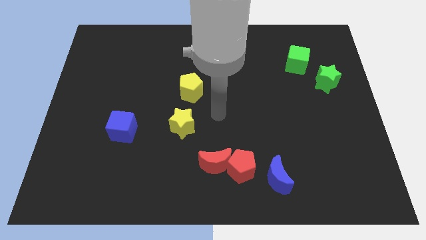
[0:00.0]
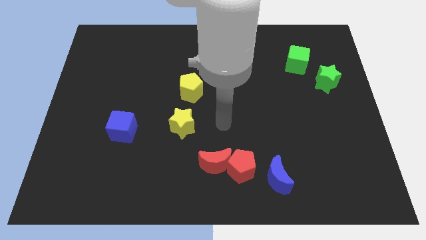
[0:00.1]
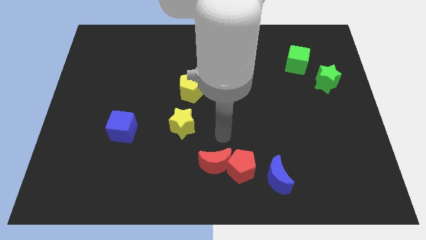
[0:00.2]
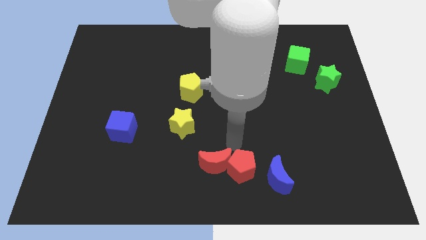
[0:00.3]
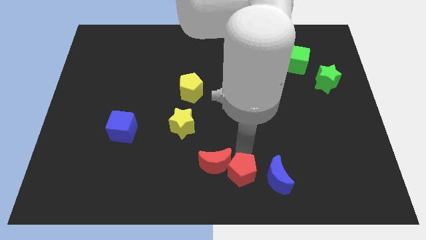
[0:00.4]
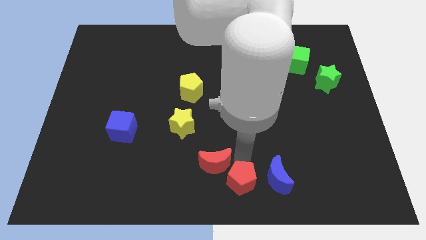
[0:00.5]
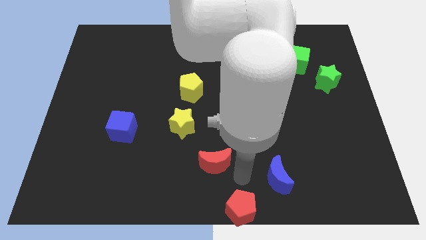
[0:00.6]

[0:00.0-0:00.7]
separate the red moon from the red pentagon

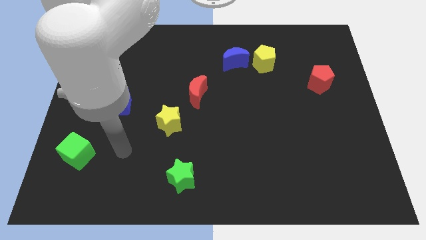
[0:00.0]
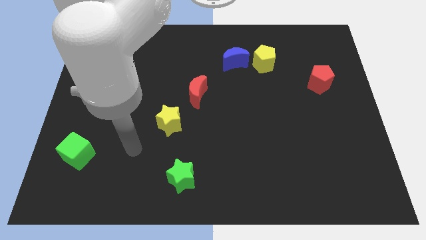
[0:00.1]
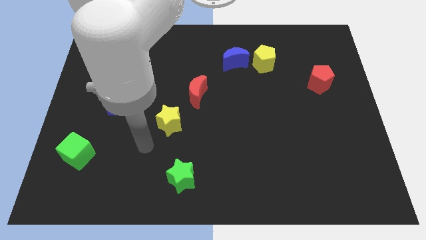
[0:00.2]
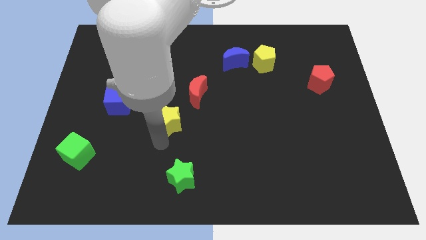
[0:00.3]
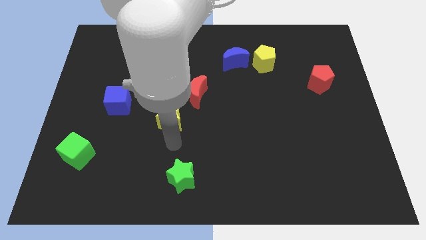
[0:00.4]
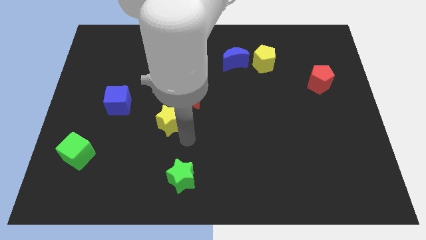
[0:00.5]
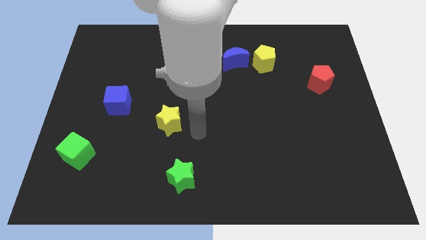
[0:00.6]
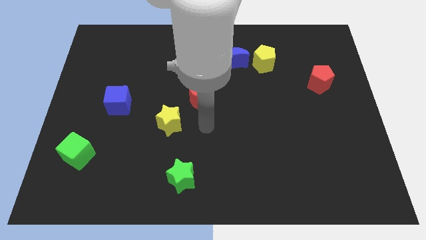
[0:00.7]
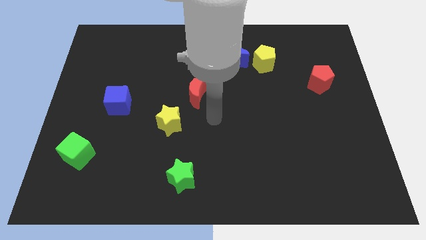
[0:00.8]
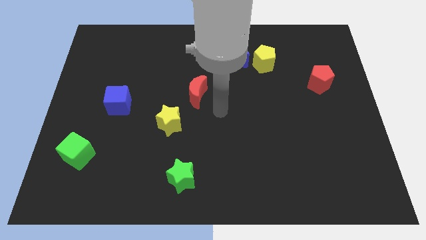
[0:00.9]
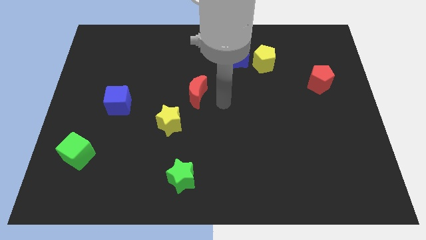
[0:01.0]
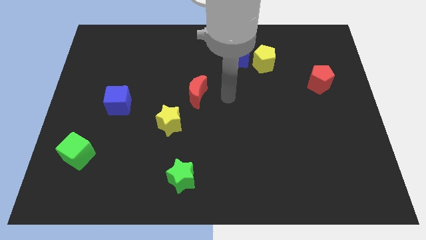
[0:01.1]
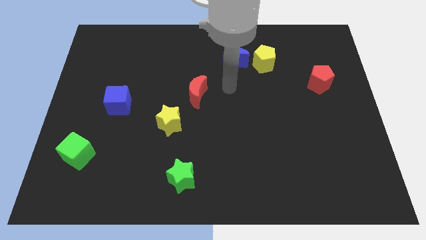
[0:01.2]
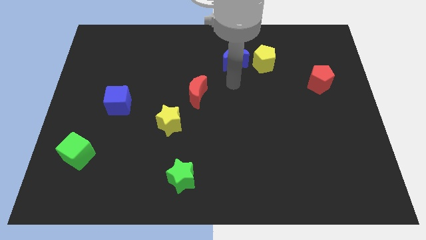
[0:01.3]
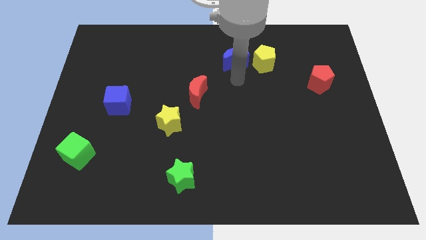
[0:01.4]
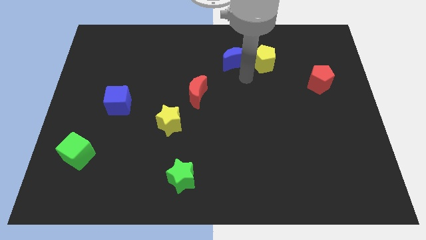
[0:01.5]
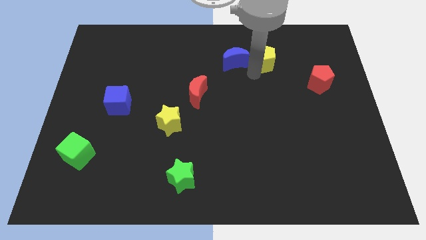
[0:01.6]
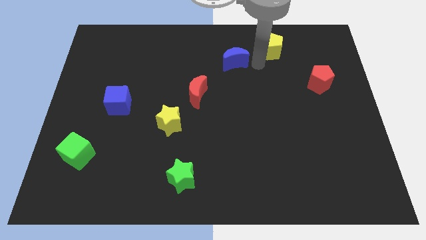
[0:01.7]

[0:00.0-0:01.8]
pull the blue moon apart from the yellow pentagon

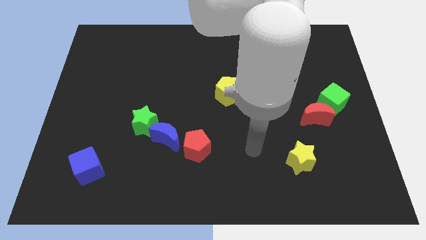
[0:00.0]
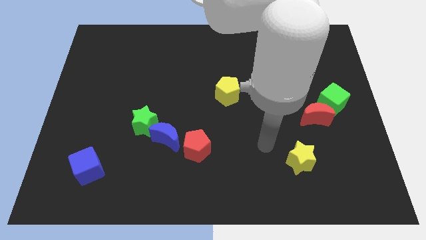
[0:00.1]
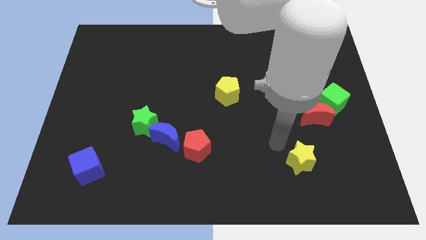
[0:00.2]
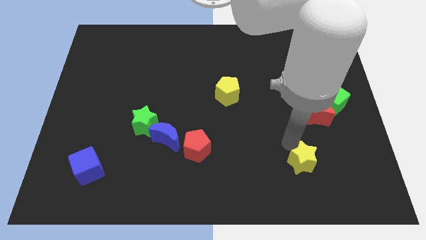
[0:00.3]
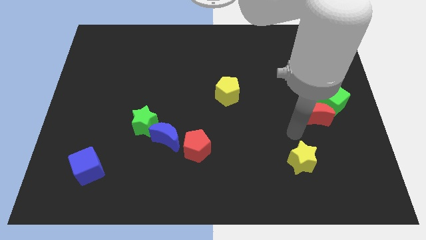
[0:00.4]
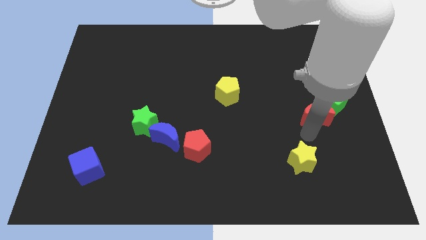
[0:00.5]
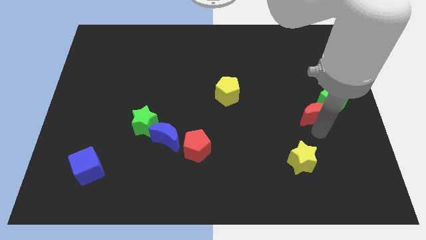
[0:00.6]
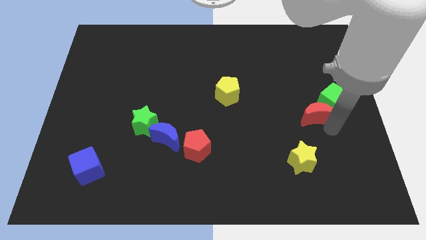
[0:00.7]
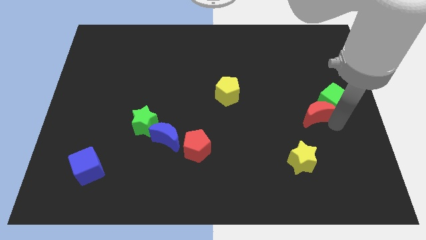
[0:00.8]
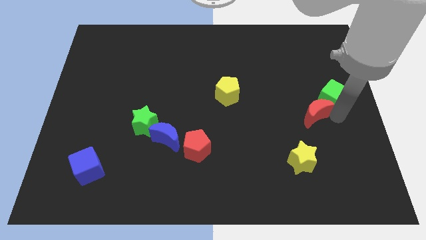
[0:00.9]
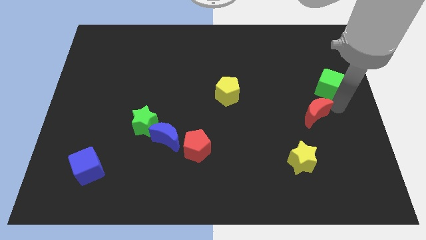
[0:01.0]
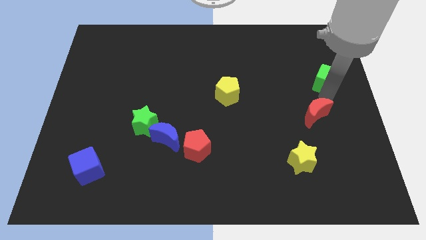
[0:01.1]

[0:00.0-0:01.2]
move the red moon away from the green cube

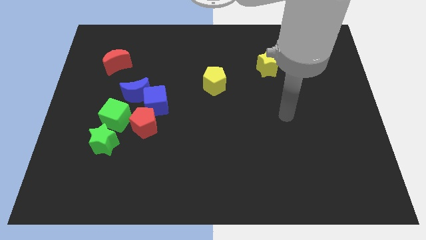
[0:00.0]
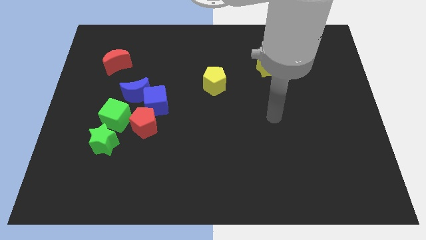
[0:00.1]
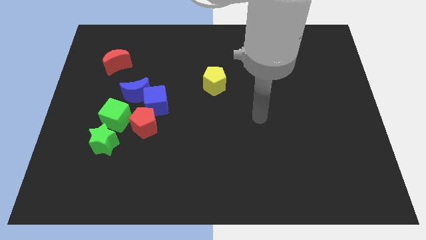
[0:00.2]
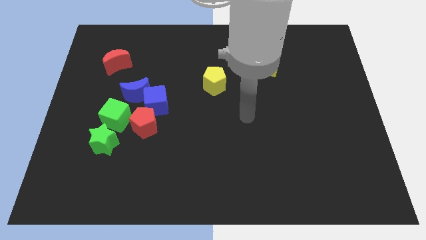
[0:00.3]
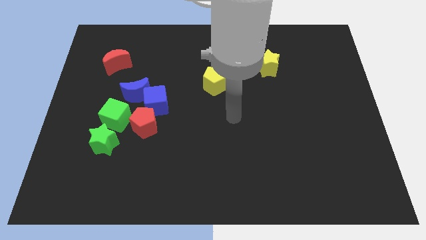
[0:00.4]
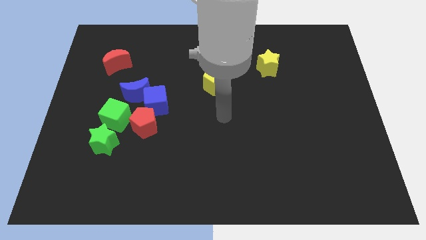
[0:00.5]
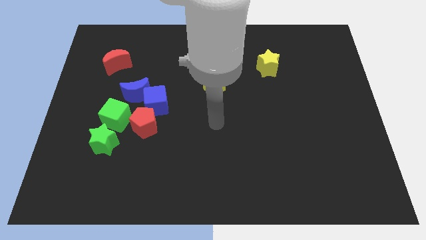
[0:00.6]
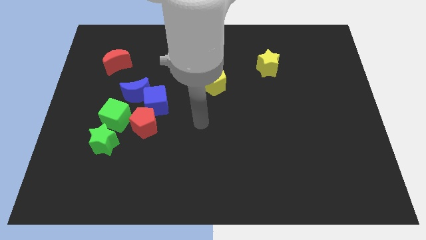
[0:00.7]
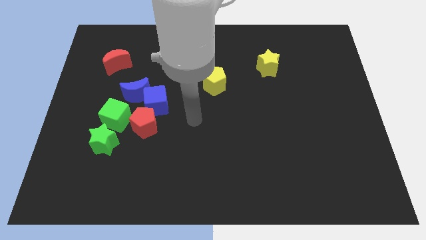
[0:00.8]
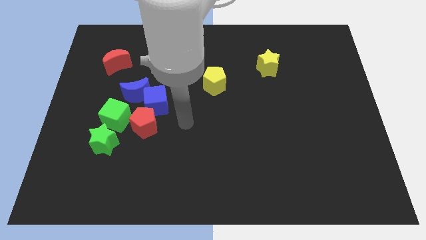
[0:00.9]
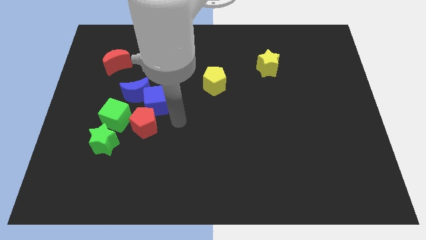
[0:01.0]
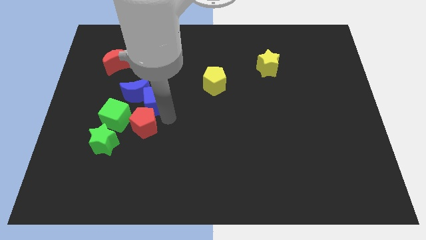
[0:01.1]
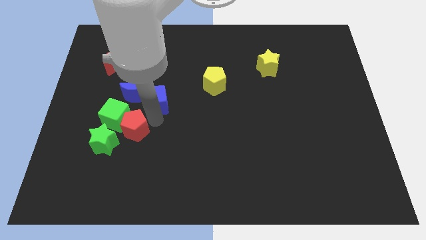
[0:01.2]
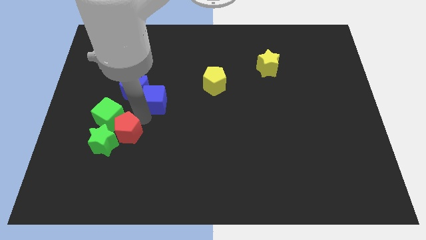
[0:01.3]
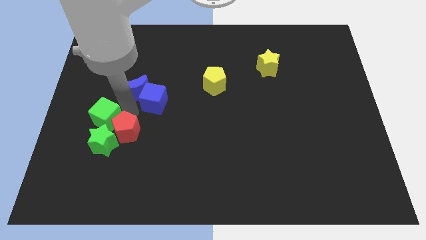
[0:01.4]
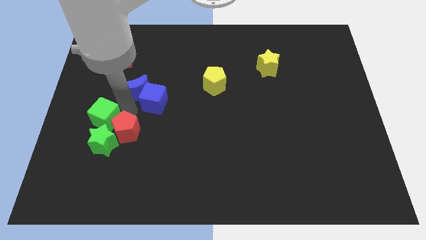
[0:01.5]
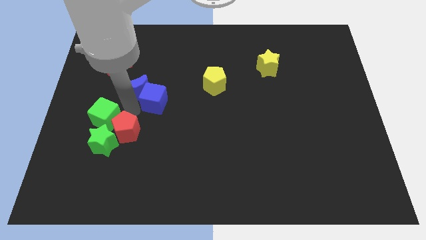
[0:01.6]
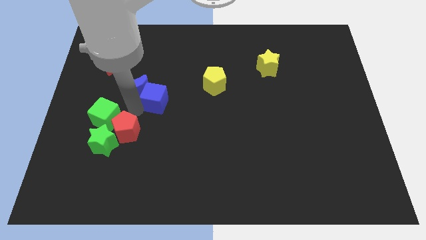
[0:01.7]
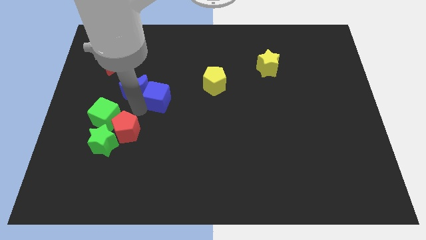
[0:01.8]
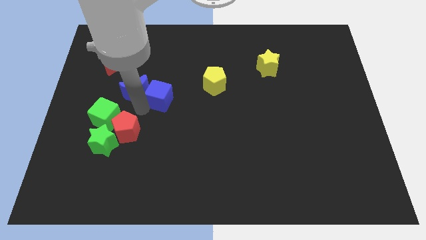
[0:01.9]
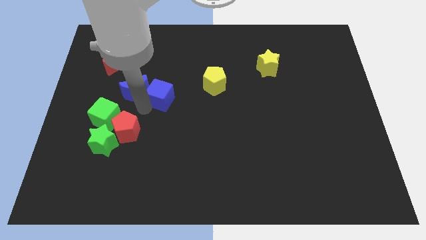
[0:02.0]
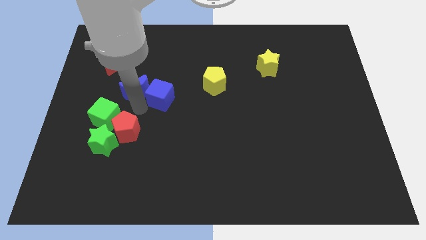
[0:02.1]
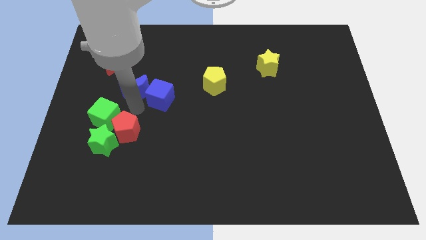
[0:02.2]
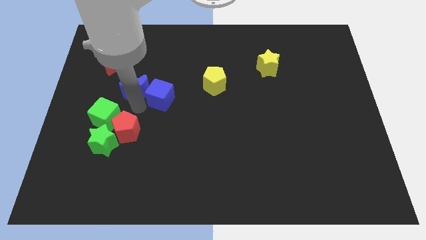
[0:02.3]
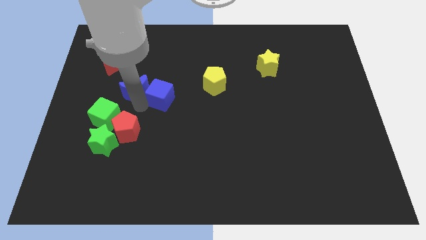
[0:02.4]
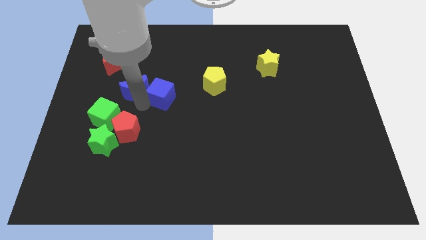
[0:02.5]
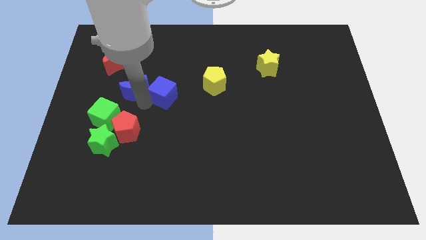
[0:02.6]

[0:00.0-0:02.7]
pull the blue cube apart from the blue moon, red pentagon, and green cube

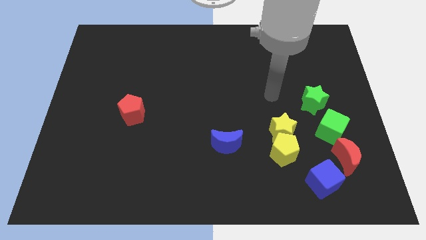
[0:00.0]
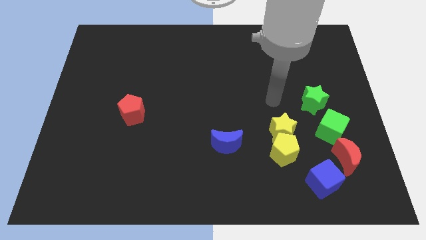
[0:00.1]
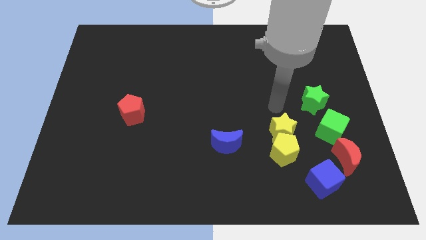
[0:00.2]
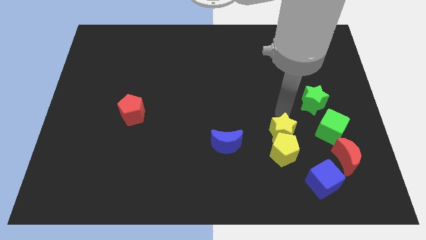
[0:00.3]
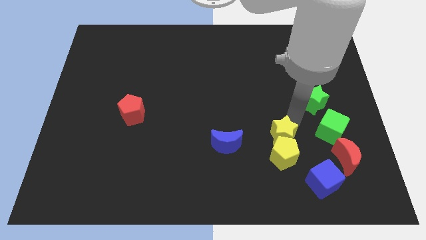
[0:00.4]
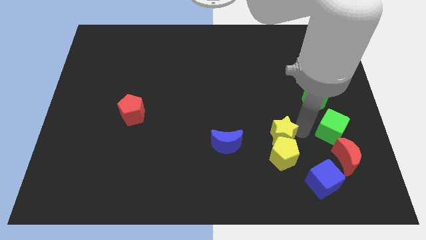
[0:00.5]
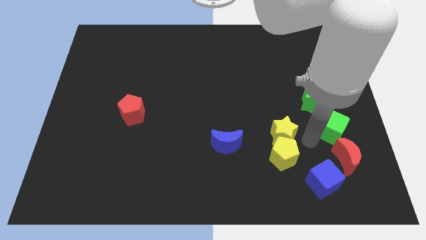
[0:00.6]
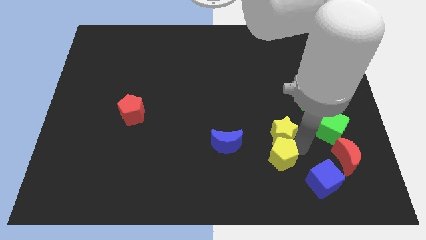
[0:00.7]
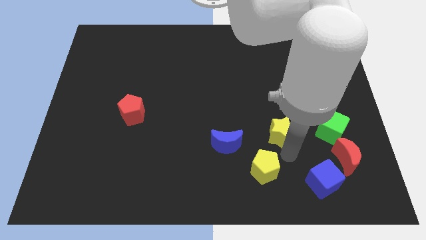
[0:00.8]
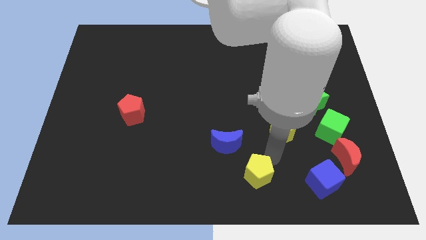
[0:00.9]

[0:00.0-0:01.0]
separate the yellow star from the yellow pentagon

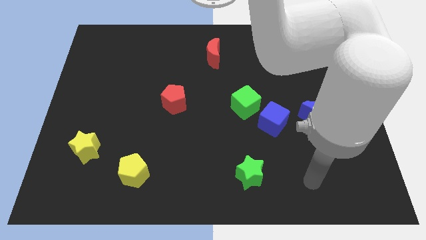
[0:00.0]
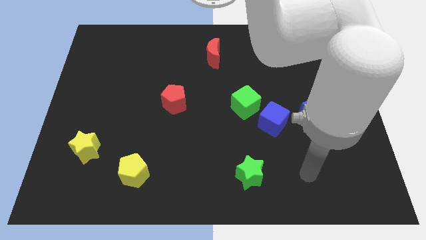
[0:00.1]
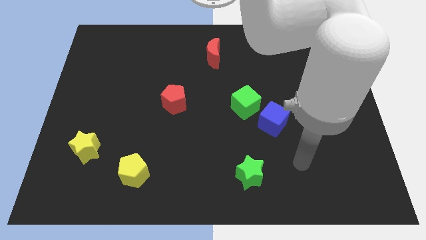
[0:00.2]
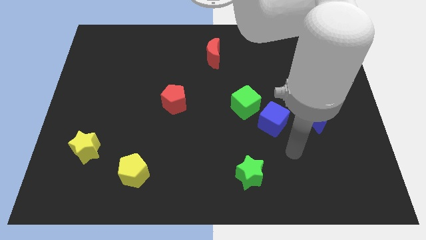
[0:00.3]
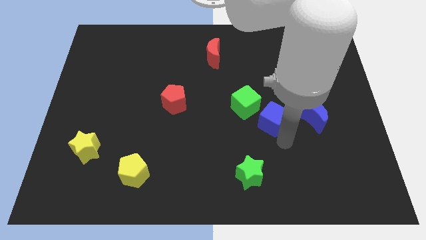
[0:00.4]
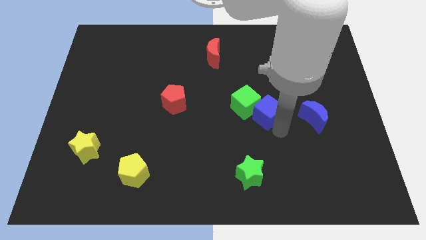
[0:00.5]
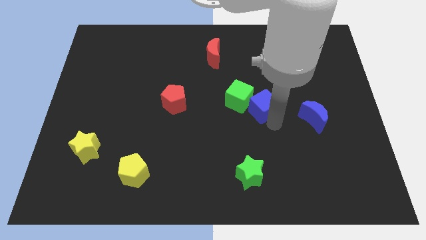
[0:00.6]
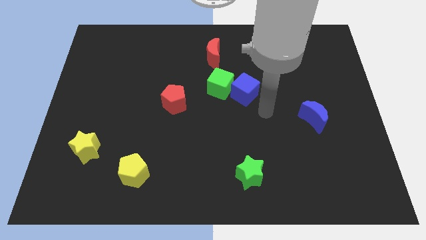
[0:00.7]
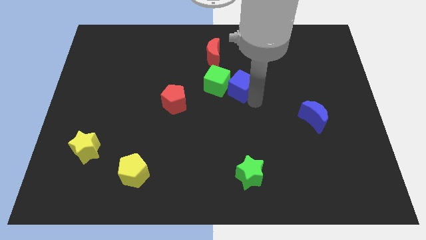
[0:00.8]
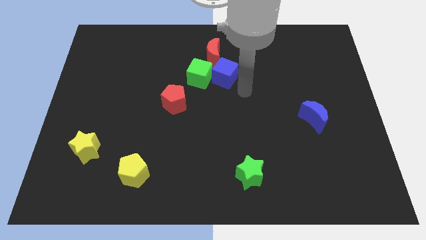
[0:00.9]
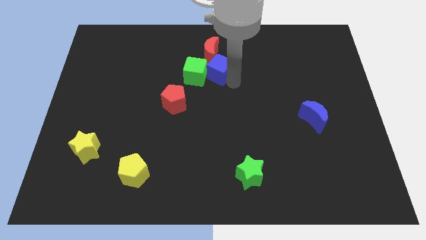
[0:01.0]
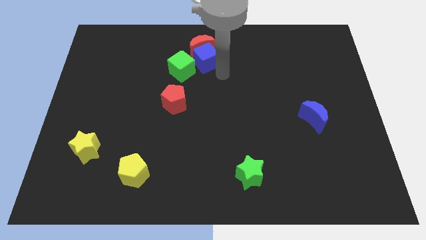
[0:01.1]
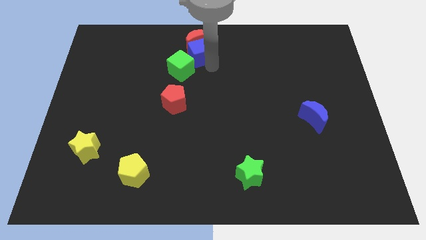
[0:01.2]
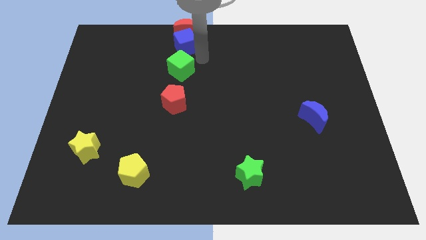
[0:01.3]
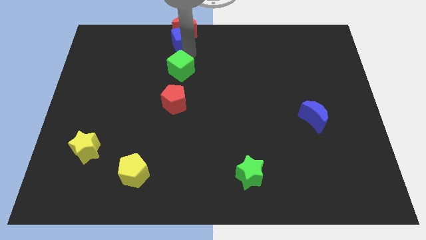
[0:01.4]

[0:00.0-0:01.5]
pull the green cube apart from the blue cube

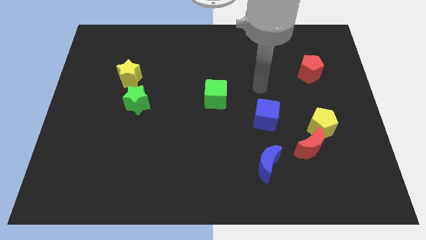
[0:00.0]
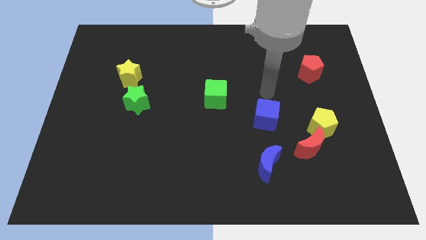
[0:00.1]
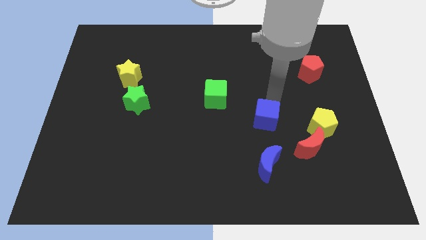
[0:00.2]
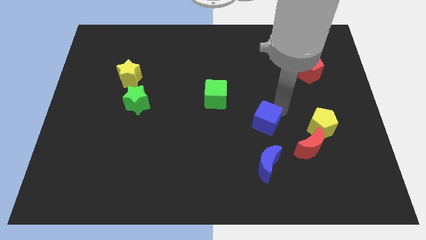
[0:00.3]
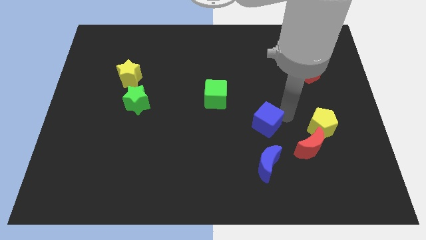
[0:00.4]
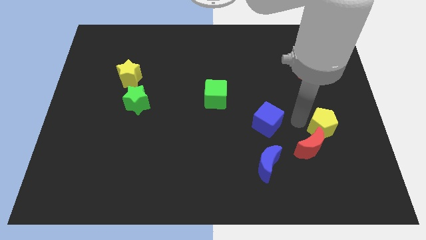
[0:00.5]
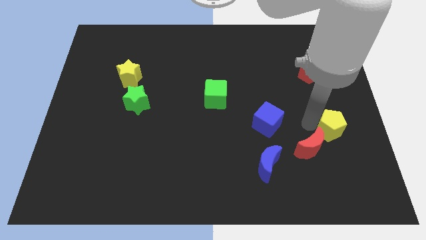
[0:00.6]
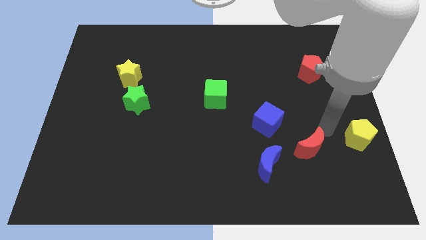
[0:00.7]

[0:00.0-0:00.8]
separate the red moon from the yellow pentagon
